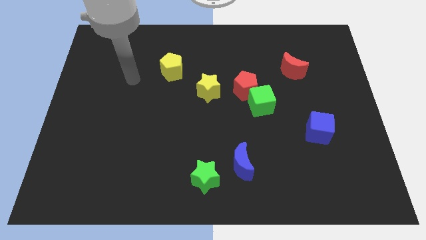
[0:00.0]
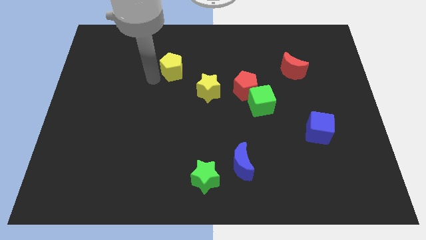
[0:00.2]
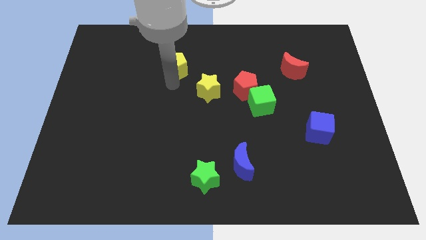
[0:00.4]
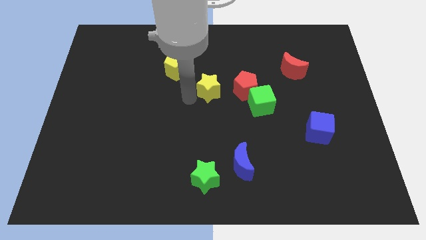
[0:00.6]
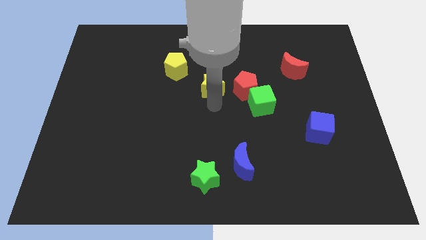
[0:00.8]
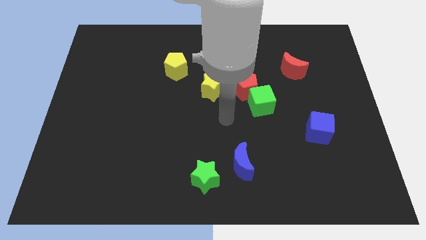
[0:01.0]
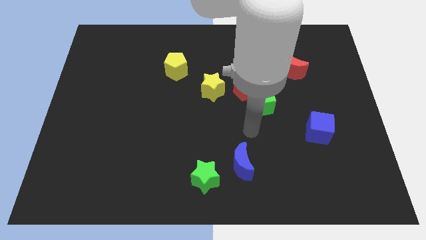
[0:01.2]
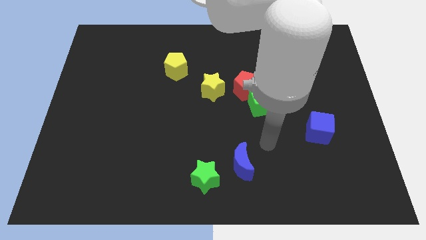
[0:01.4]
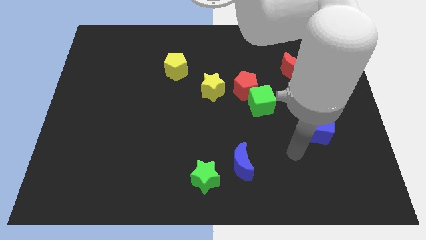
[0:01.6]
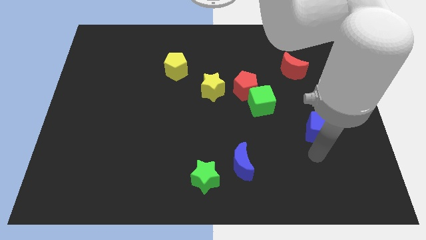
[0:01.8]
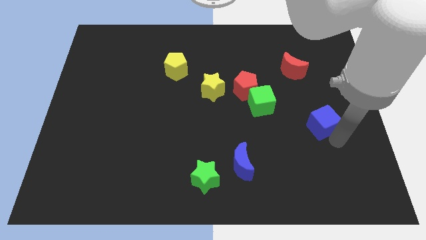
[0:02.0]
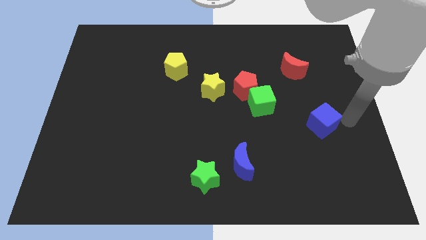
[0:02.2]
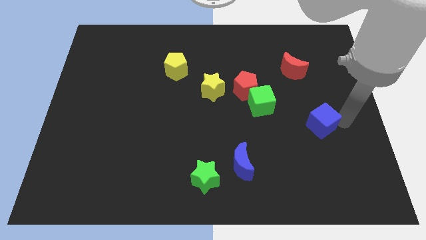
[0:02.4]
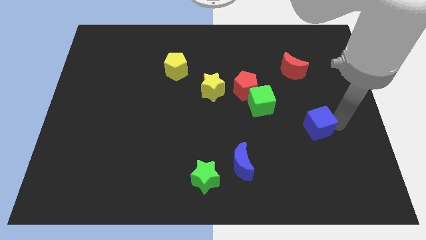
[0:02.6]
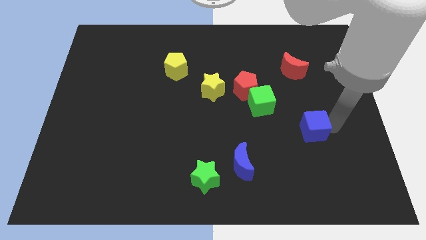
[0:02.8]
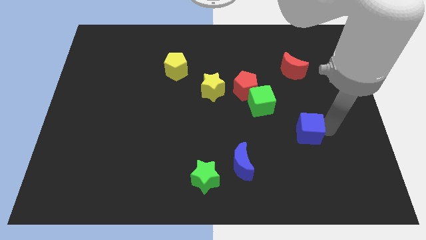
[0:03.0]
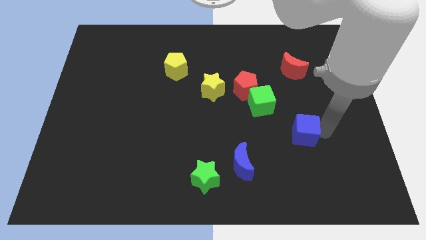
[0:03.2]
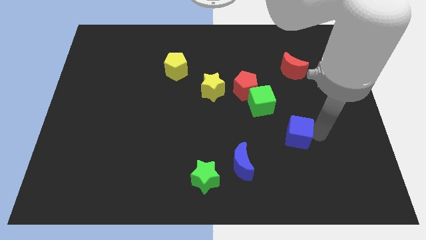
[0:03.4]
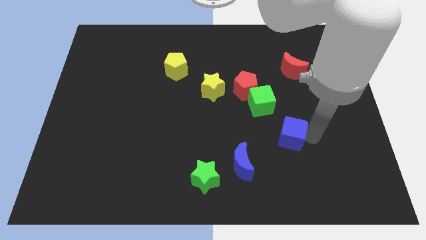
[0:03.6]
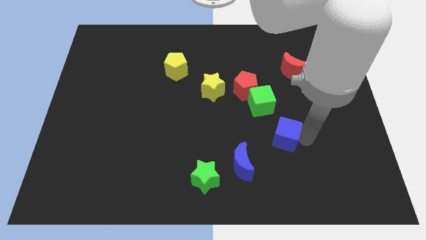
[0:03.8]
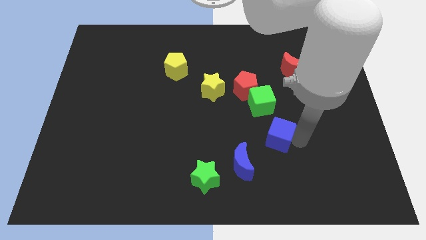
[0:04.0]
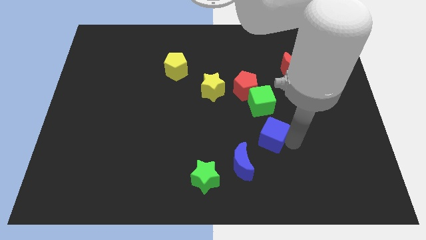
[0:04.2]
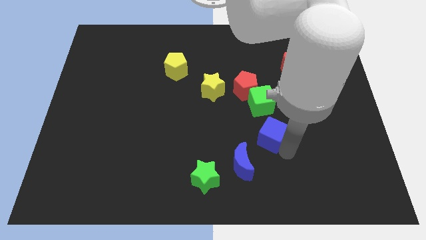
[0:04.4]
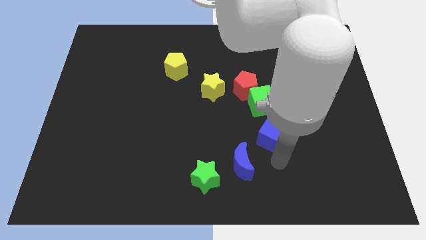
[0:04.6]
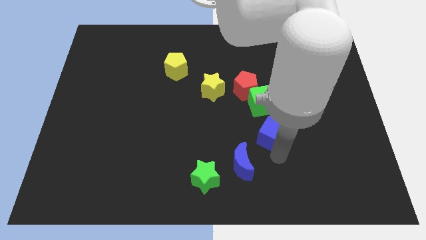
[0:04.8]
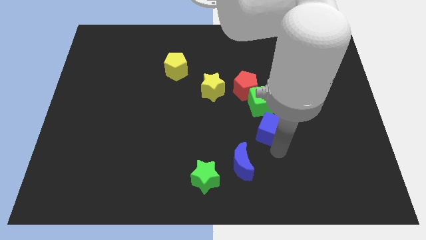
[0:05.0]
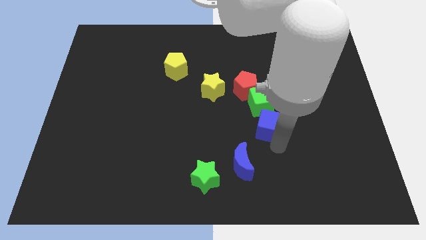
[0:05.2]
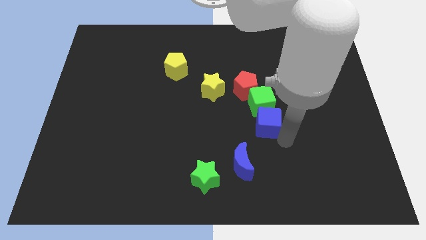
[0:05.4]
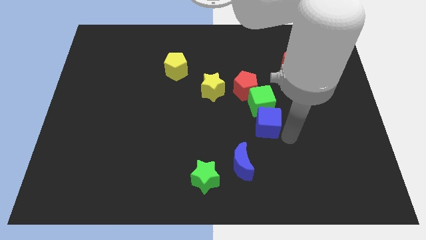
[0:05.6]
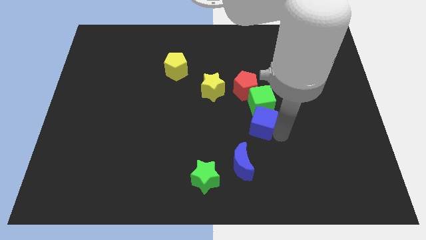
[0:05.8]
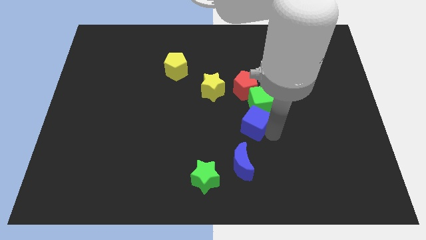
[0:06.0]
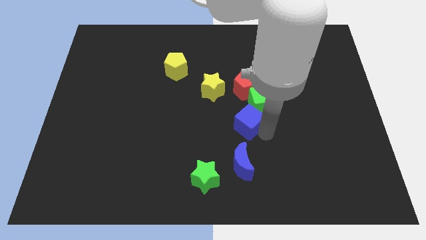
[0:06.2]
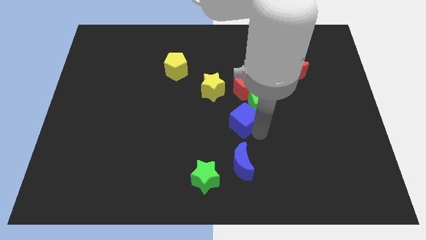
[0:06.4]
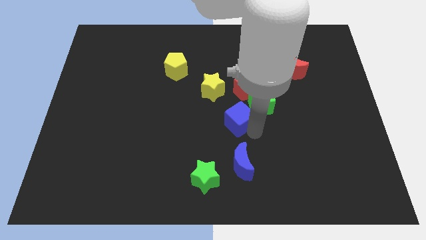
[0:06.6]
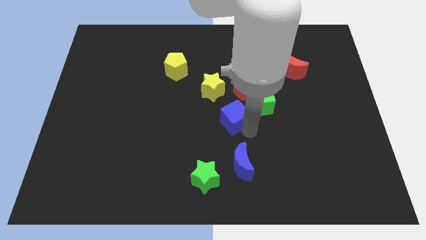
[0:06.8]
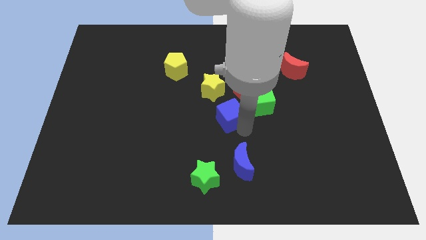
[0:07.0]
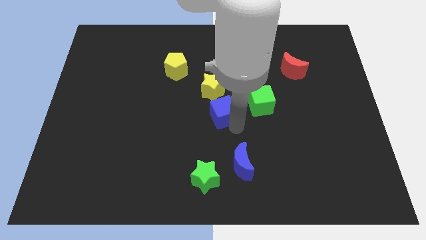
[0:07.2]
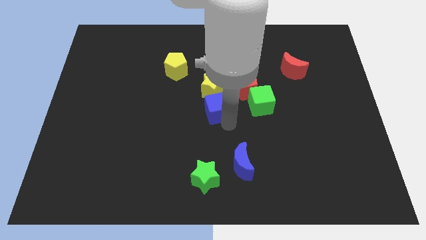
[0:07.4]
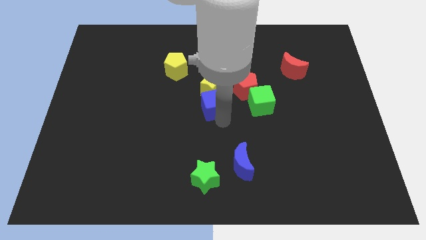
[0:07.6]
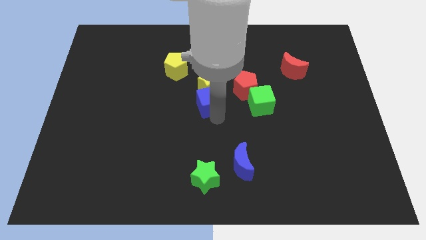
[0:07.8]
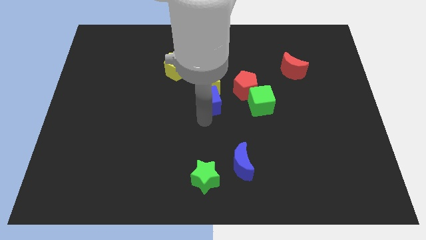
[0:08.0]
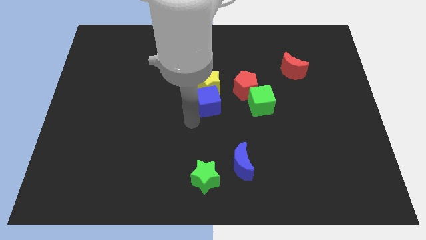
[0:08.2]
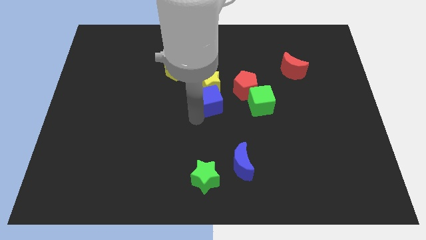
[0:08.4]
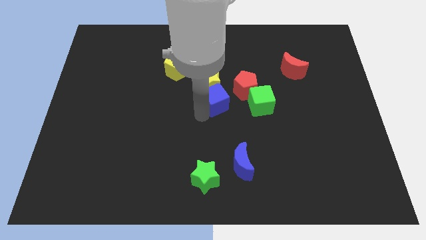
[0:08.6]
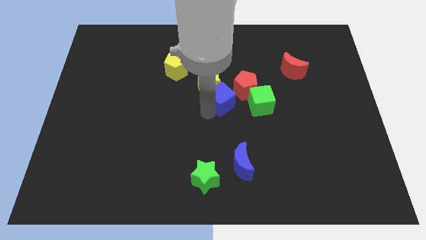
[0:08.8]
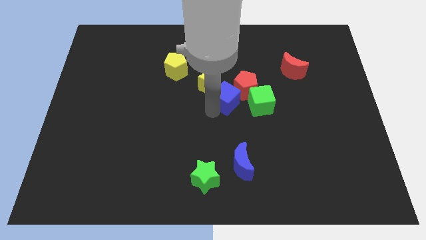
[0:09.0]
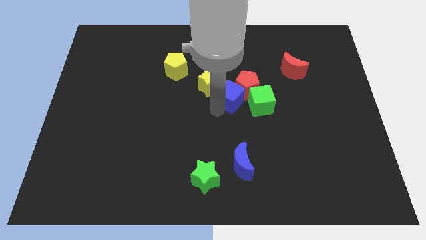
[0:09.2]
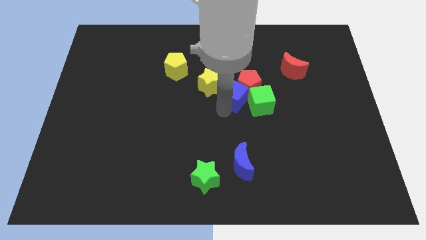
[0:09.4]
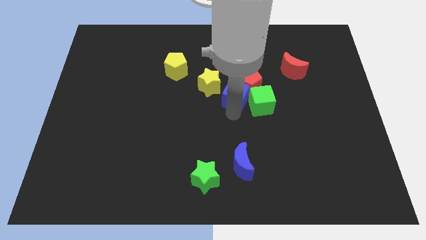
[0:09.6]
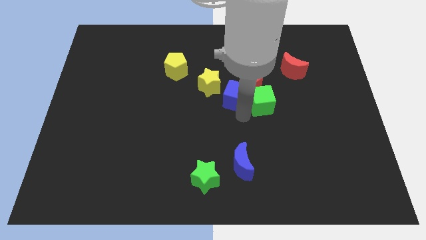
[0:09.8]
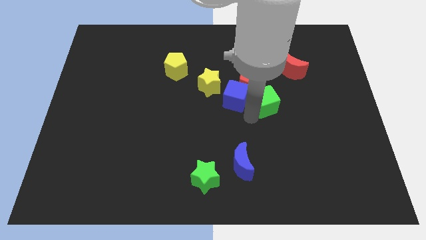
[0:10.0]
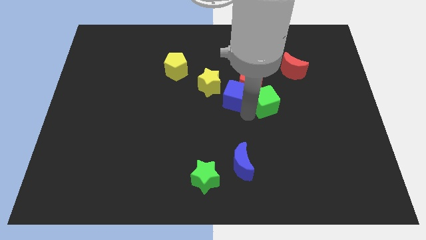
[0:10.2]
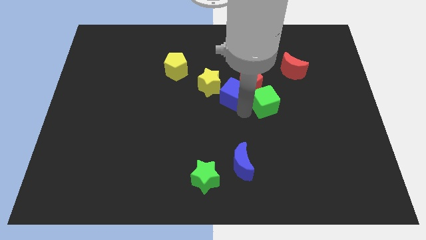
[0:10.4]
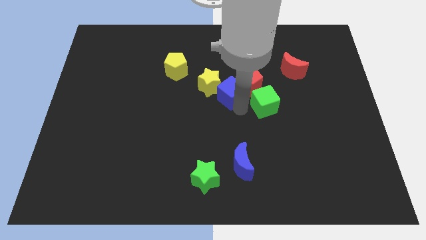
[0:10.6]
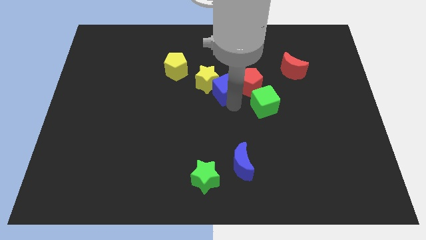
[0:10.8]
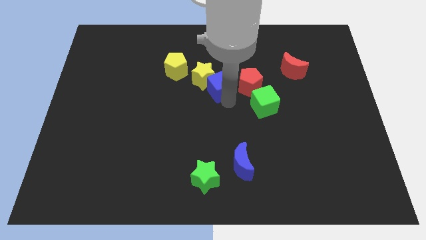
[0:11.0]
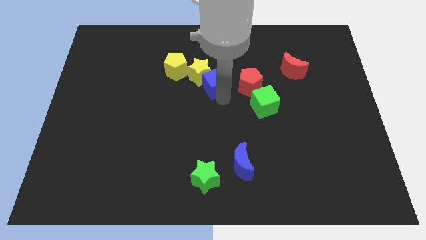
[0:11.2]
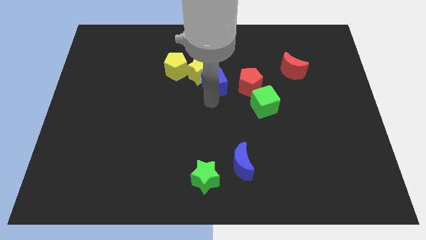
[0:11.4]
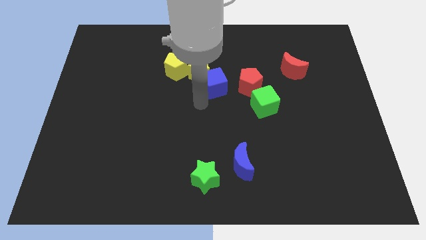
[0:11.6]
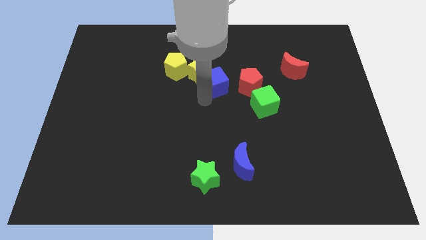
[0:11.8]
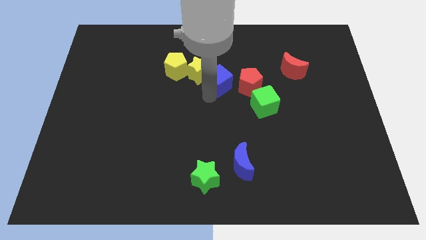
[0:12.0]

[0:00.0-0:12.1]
slide the blue cube to the top left side of the red pentagon

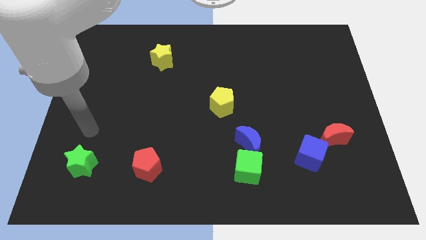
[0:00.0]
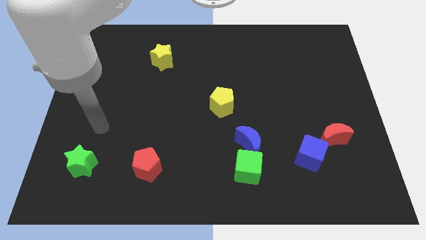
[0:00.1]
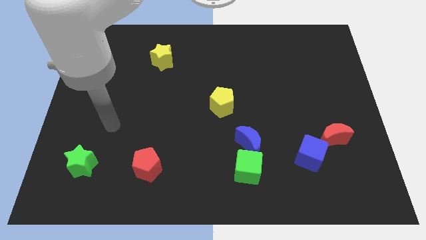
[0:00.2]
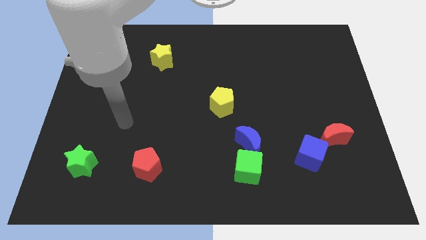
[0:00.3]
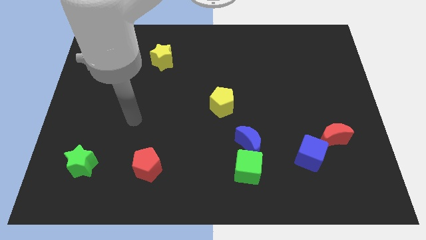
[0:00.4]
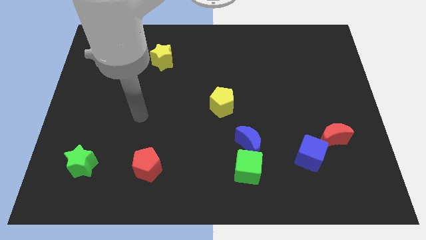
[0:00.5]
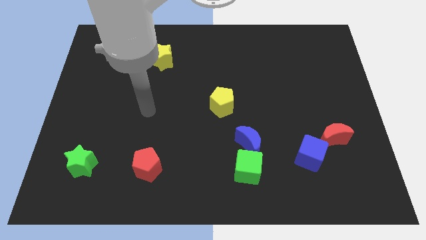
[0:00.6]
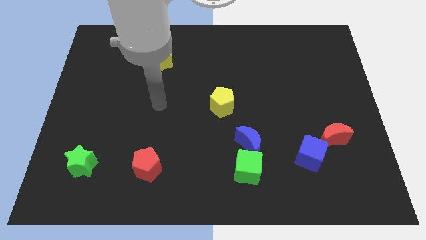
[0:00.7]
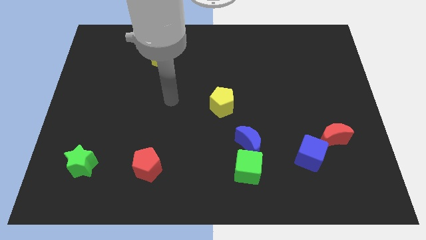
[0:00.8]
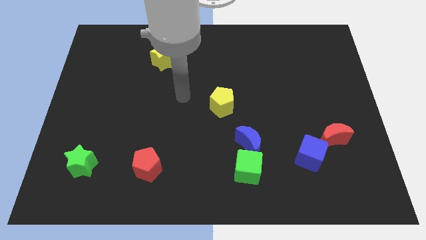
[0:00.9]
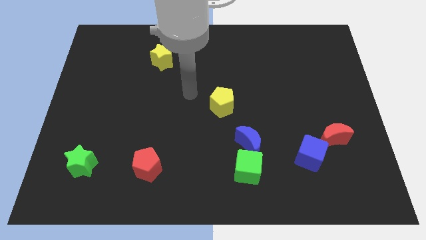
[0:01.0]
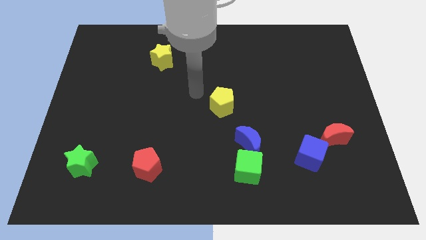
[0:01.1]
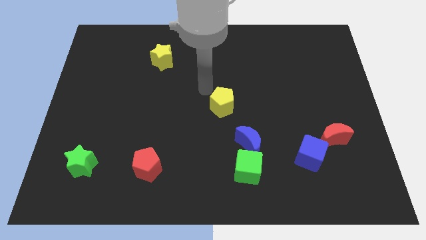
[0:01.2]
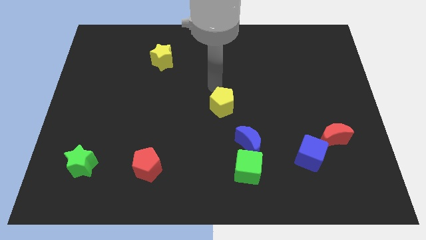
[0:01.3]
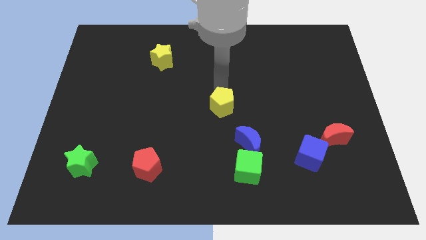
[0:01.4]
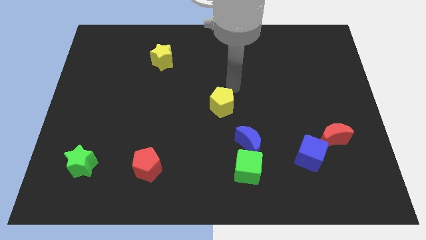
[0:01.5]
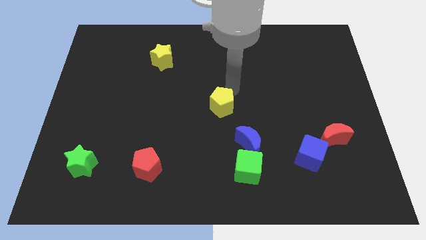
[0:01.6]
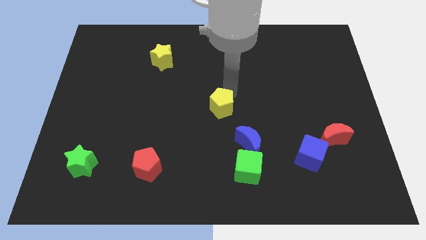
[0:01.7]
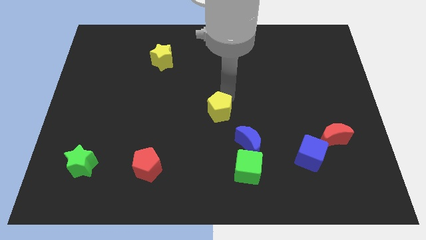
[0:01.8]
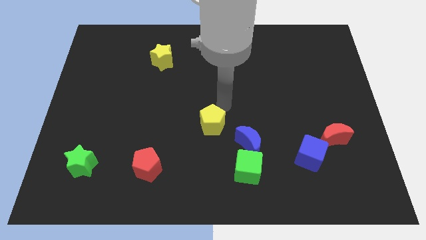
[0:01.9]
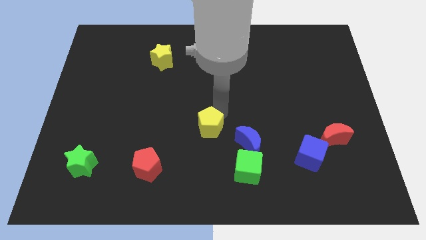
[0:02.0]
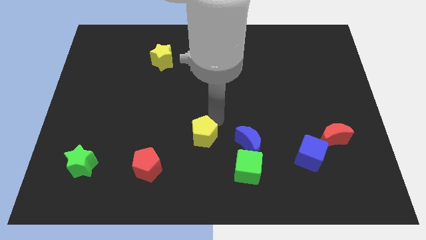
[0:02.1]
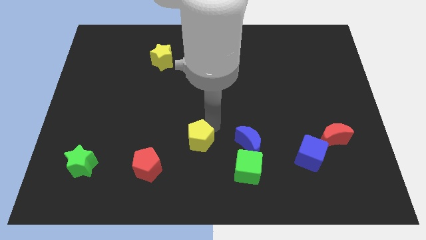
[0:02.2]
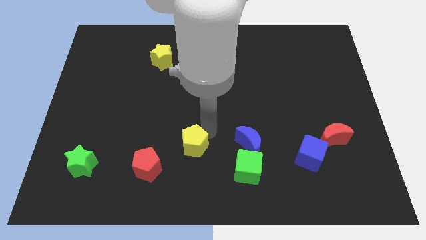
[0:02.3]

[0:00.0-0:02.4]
slide the yellow pentagon to the top right of the red pentagon
